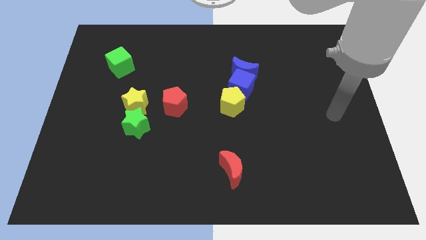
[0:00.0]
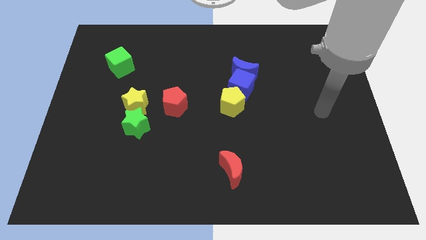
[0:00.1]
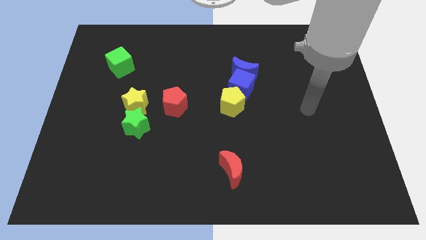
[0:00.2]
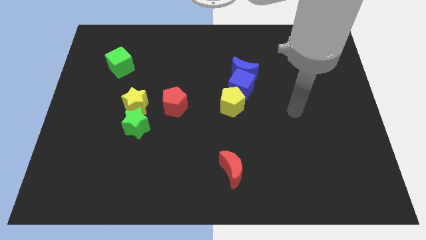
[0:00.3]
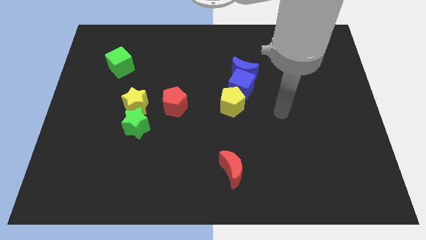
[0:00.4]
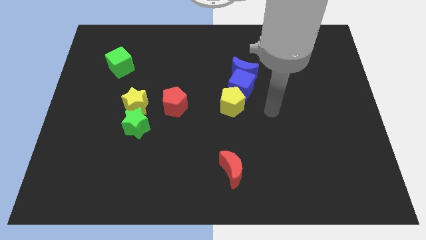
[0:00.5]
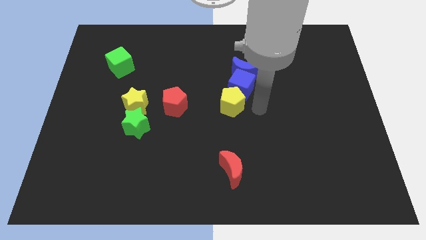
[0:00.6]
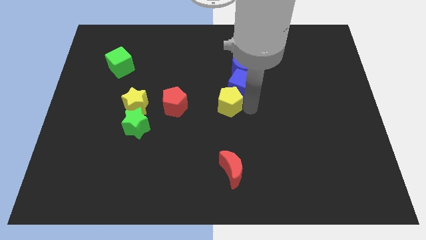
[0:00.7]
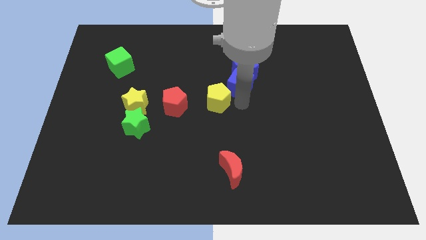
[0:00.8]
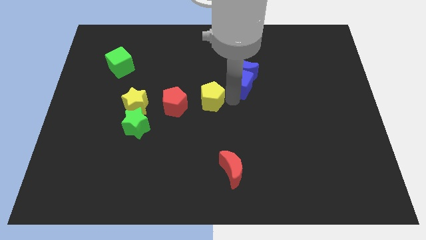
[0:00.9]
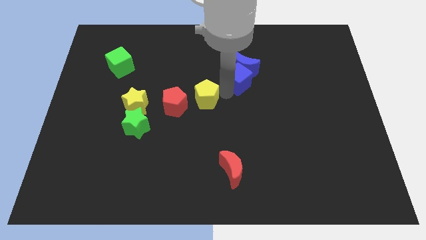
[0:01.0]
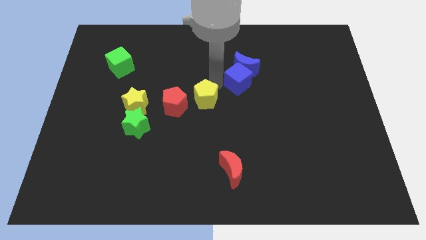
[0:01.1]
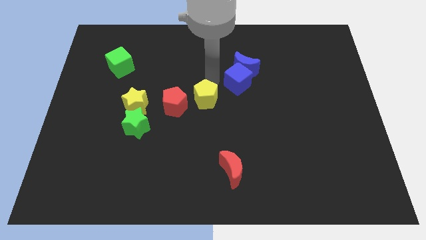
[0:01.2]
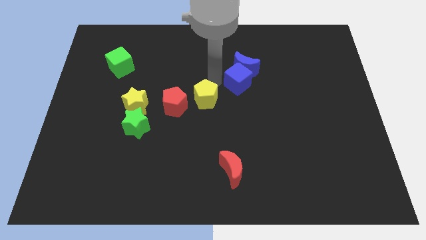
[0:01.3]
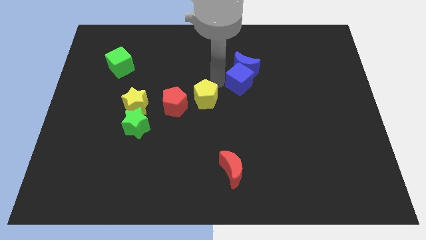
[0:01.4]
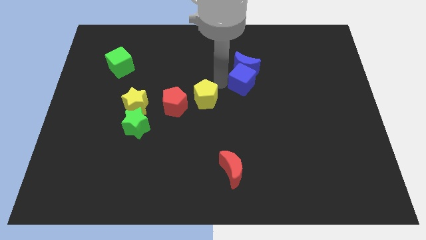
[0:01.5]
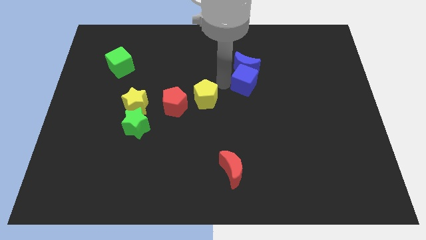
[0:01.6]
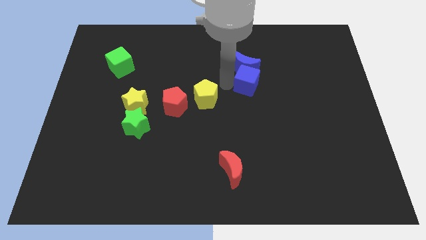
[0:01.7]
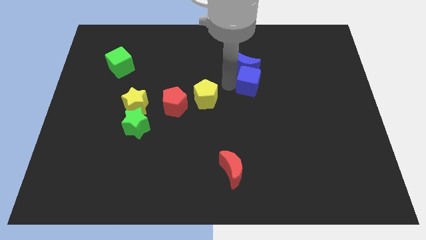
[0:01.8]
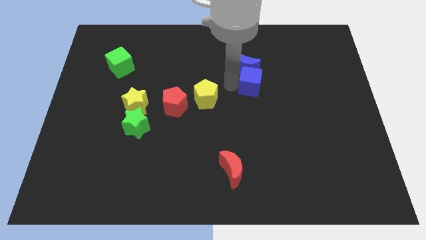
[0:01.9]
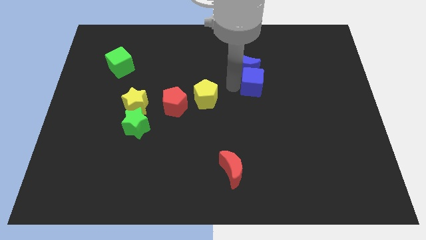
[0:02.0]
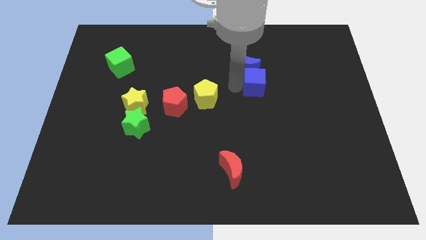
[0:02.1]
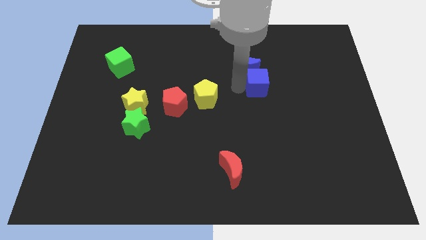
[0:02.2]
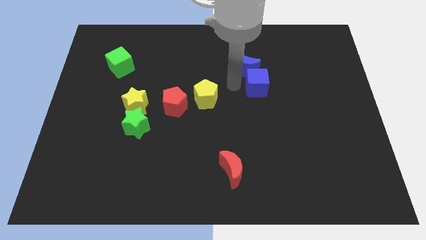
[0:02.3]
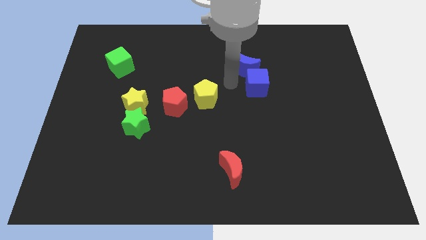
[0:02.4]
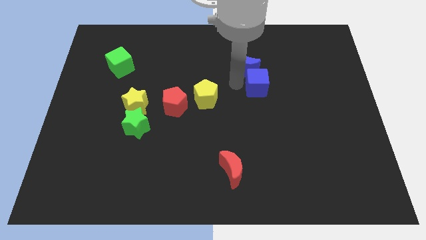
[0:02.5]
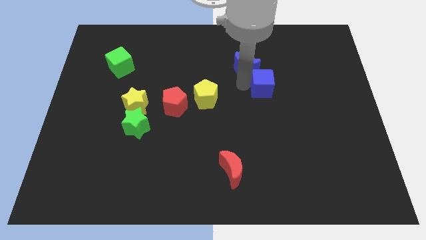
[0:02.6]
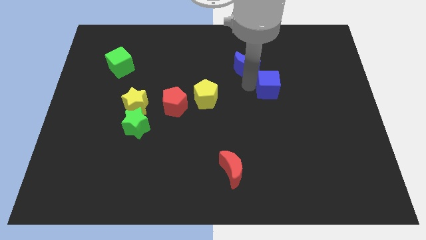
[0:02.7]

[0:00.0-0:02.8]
separate the blue cube from the blue moon and yellow pentagon

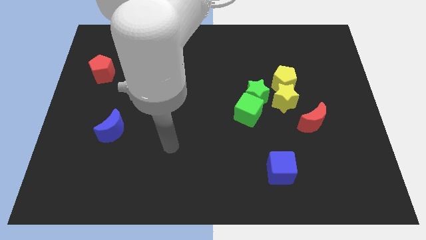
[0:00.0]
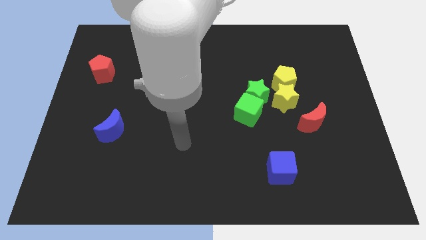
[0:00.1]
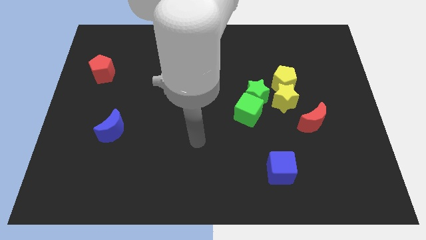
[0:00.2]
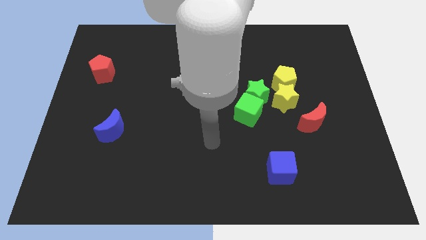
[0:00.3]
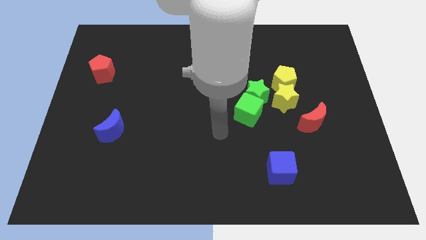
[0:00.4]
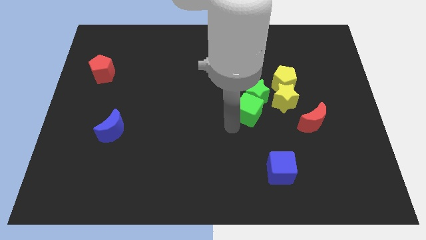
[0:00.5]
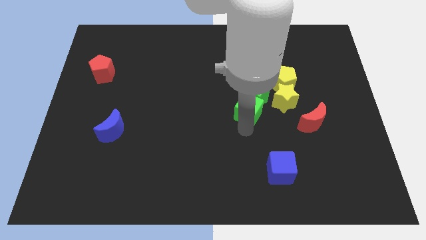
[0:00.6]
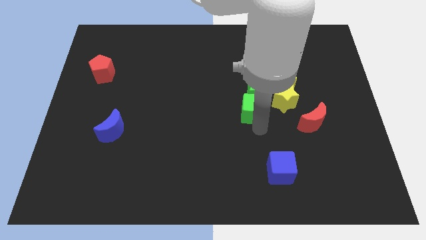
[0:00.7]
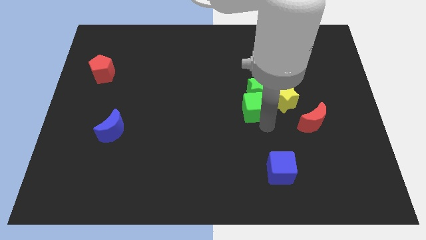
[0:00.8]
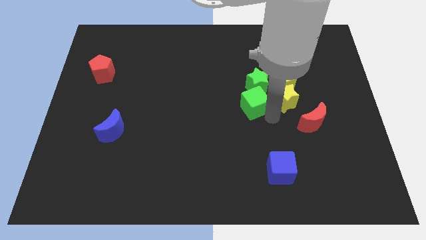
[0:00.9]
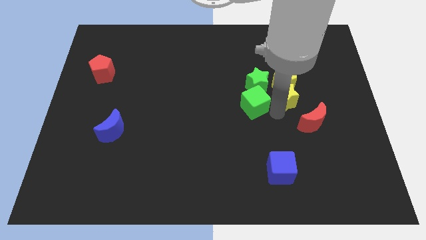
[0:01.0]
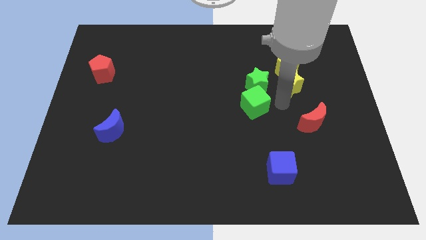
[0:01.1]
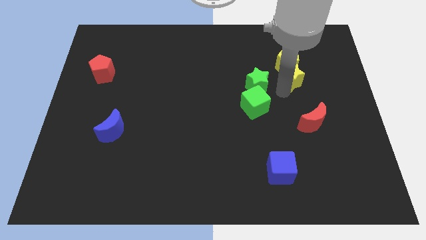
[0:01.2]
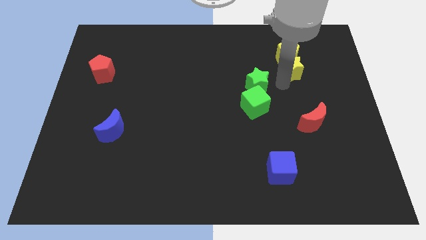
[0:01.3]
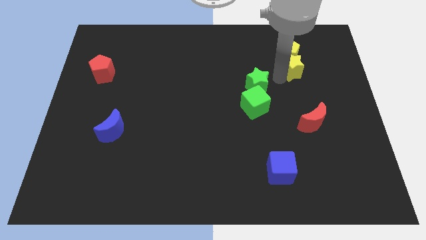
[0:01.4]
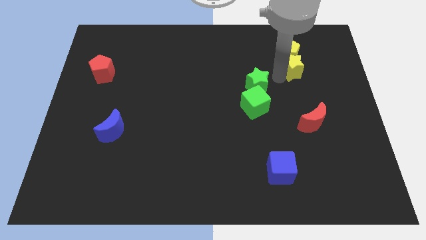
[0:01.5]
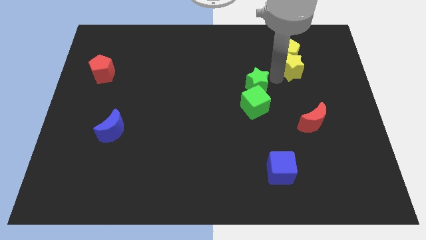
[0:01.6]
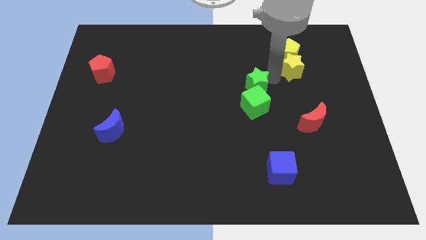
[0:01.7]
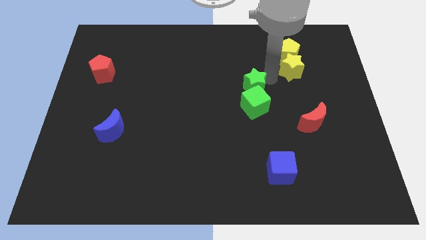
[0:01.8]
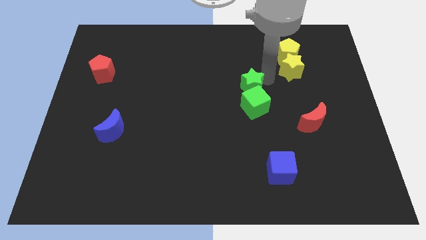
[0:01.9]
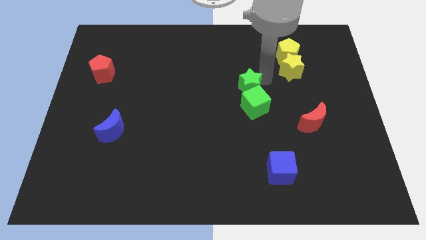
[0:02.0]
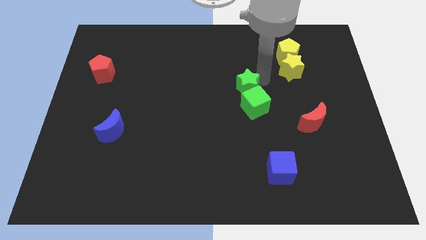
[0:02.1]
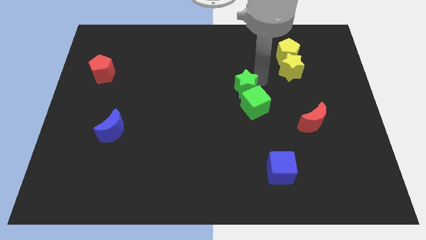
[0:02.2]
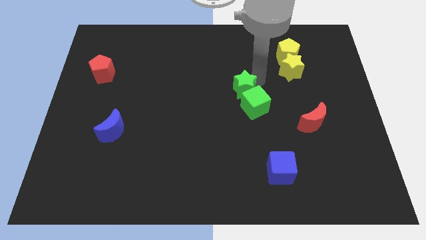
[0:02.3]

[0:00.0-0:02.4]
pull the green star apart from the clump

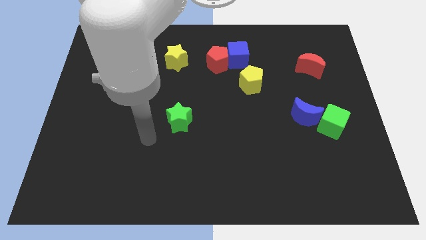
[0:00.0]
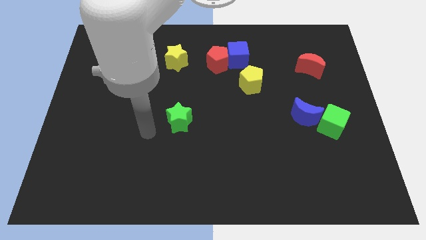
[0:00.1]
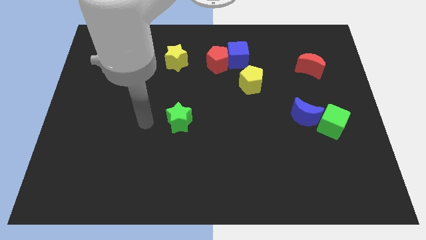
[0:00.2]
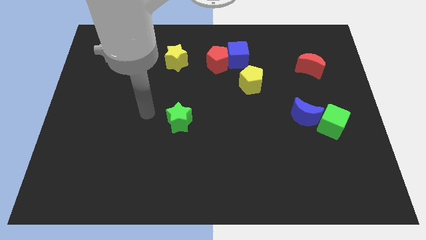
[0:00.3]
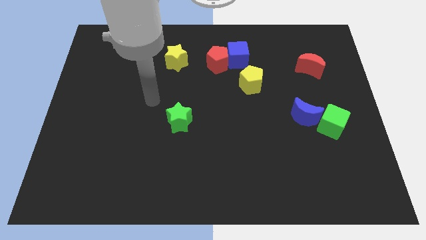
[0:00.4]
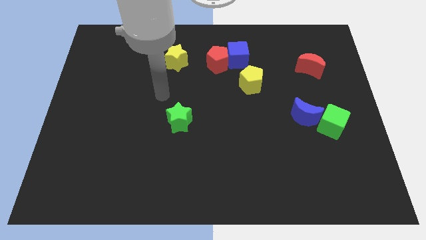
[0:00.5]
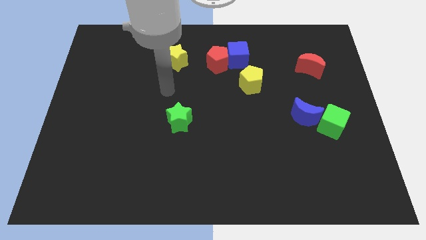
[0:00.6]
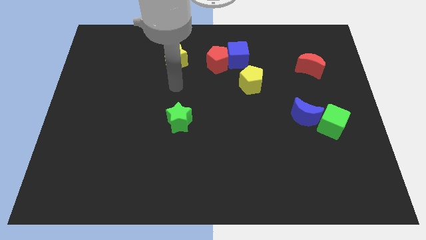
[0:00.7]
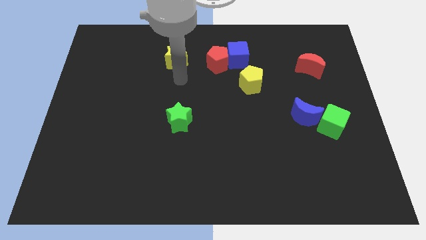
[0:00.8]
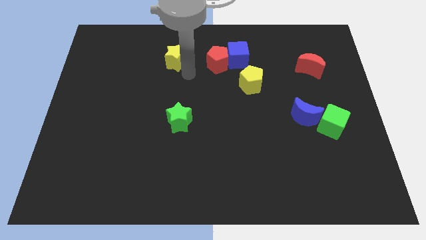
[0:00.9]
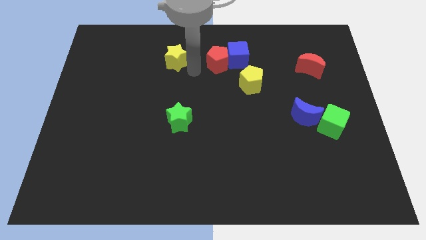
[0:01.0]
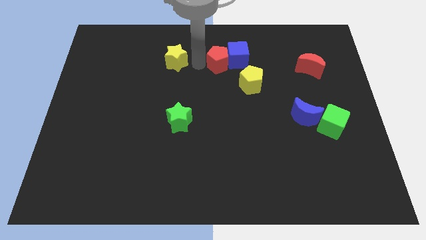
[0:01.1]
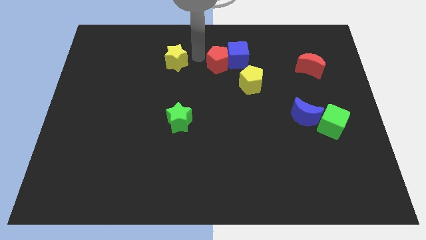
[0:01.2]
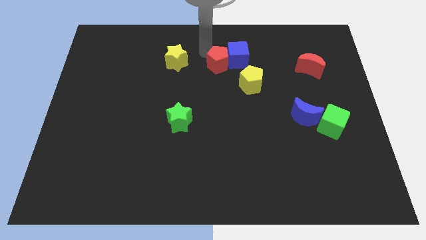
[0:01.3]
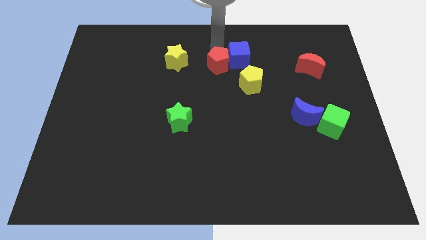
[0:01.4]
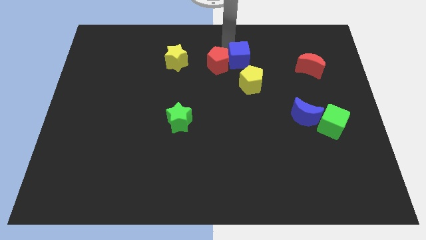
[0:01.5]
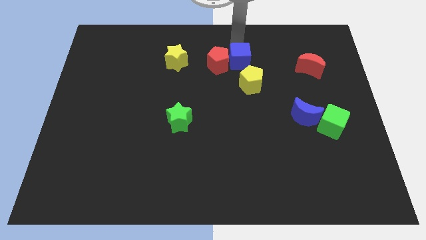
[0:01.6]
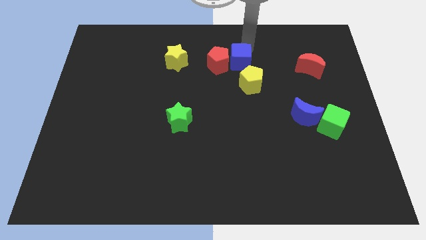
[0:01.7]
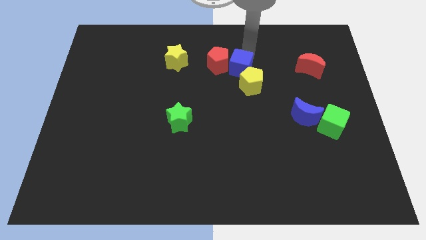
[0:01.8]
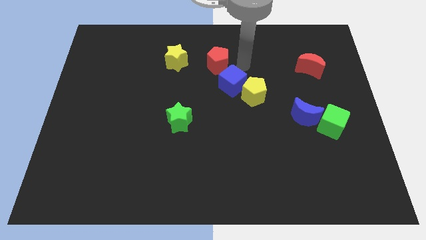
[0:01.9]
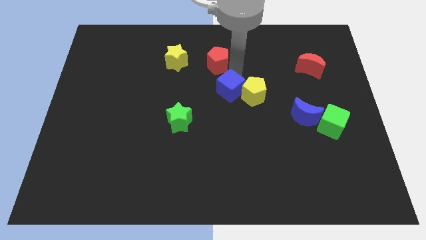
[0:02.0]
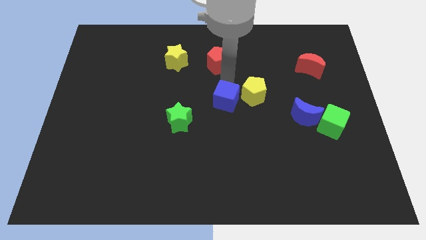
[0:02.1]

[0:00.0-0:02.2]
separate the red pentagon from the blue cube

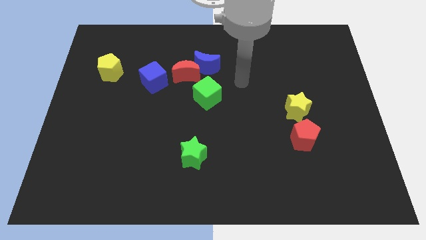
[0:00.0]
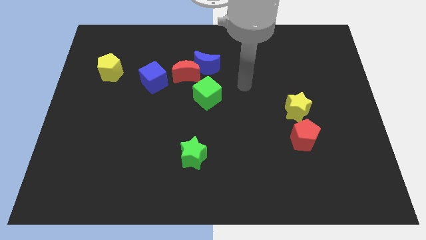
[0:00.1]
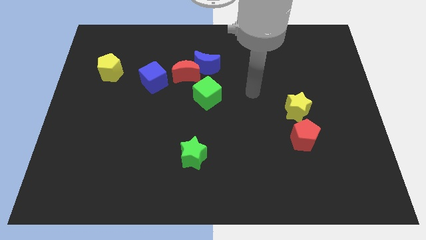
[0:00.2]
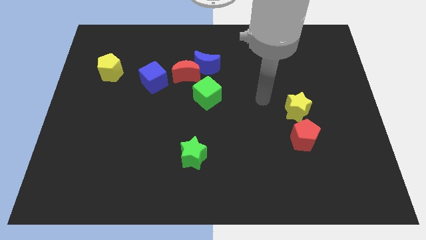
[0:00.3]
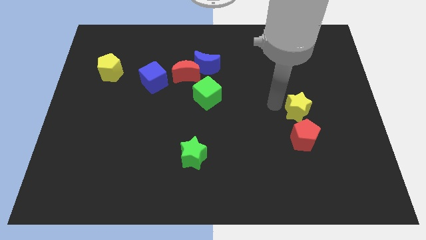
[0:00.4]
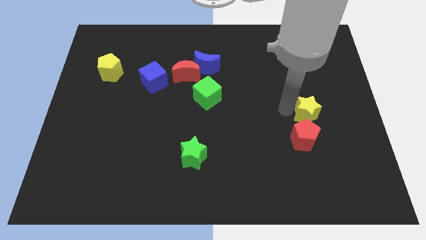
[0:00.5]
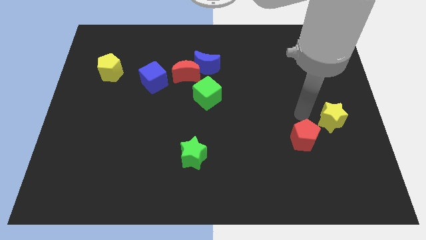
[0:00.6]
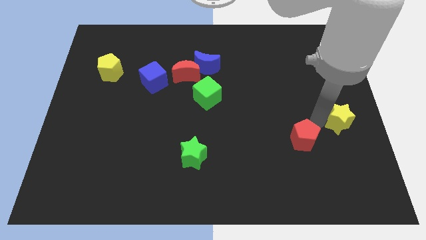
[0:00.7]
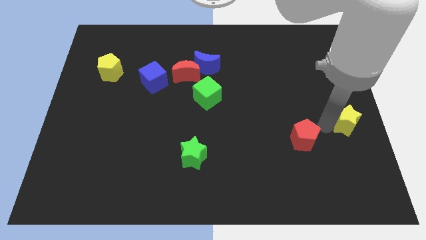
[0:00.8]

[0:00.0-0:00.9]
pull the red pentagon apart from the yellow star

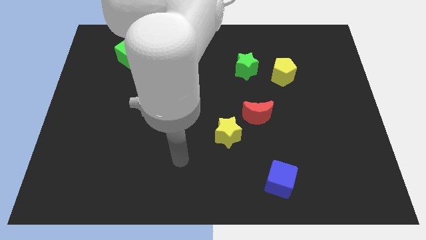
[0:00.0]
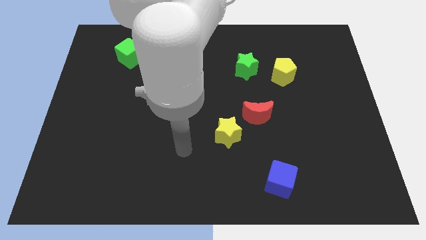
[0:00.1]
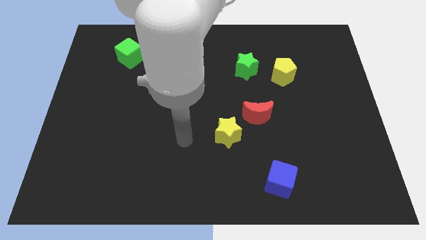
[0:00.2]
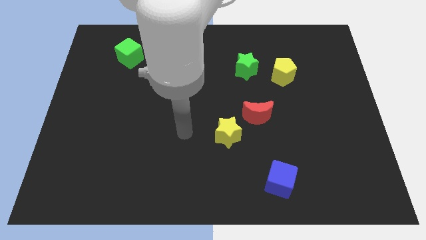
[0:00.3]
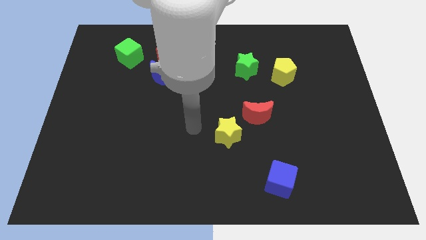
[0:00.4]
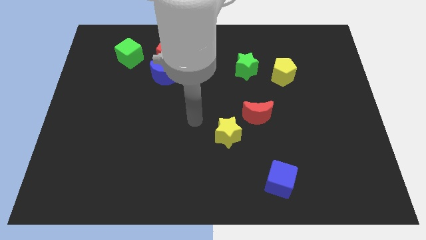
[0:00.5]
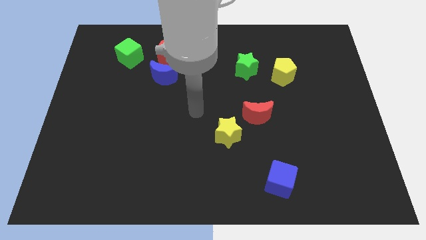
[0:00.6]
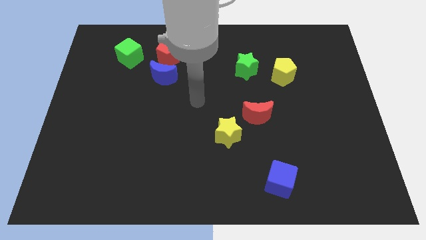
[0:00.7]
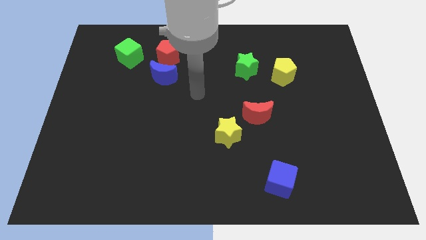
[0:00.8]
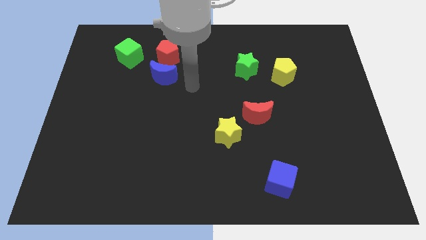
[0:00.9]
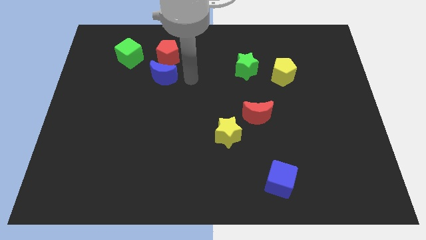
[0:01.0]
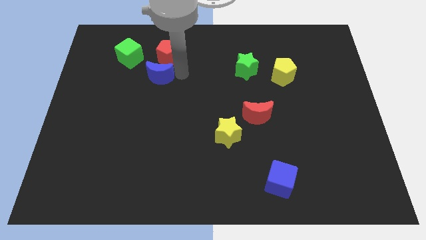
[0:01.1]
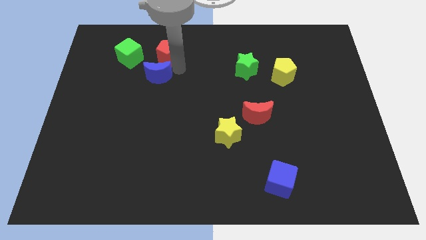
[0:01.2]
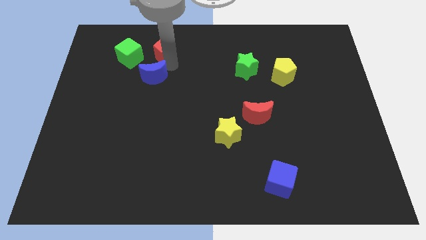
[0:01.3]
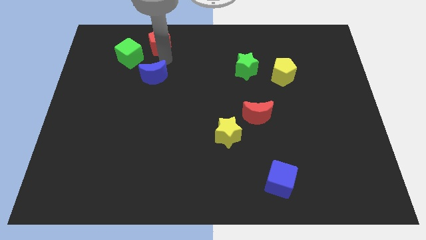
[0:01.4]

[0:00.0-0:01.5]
pull the blue moon apart from the red pentagon
